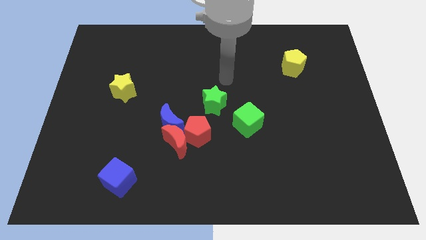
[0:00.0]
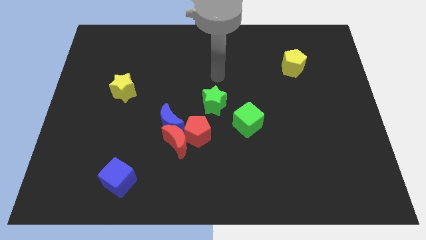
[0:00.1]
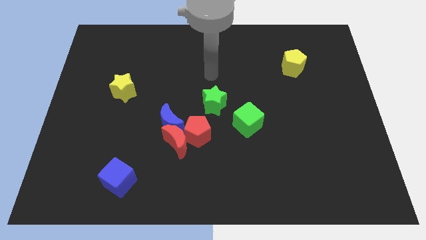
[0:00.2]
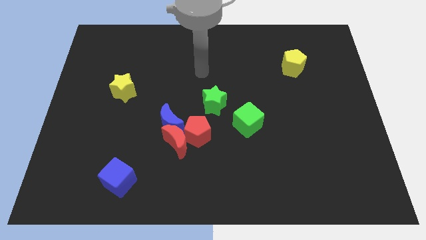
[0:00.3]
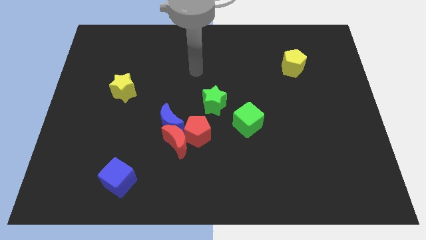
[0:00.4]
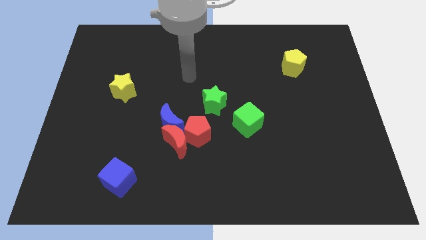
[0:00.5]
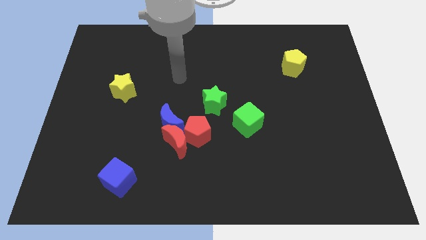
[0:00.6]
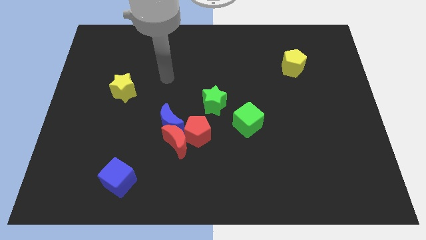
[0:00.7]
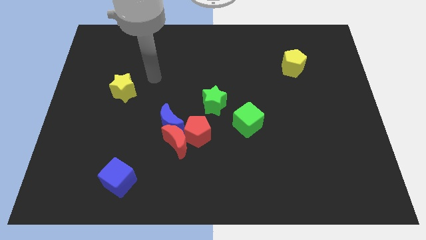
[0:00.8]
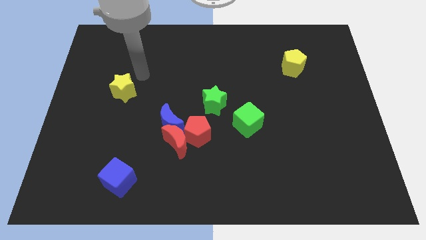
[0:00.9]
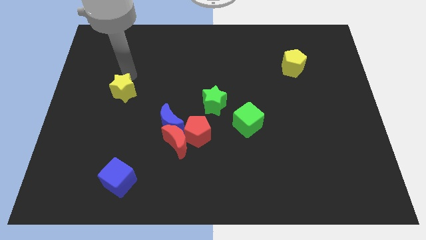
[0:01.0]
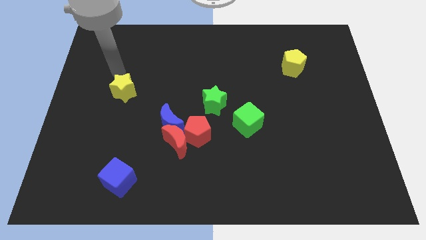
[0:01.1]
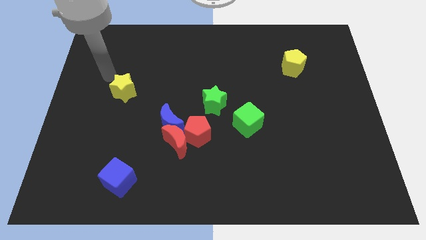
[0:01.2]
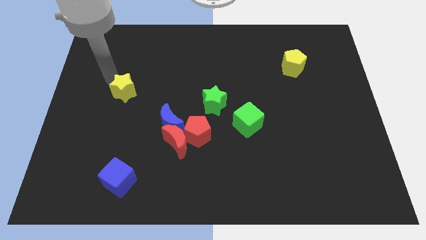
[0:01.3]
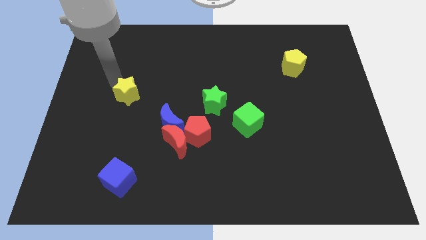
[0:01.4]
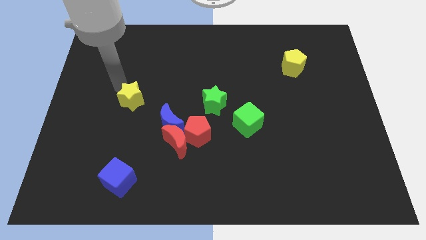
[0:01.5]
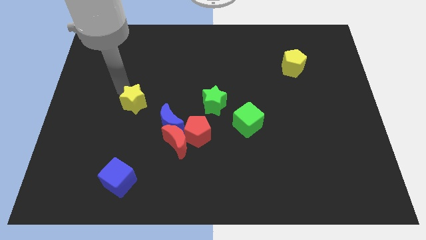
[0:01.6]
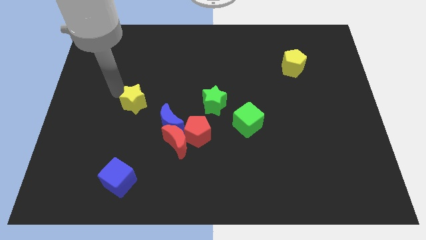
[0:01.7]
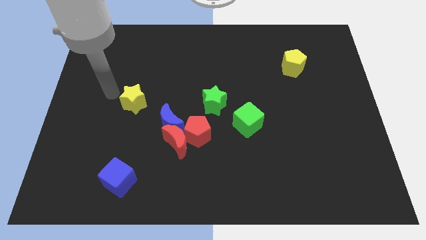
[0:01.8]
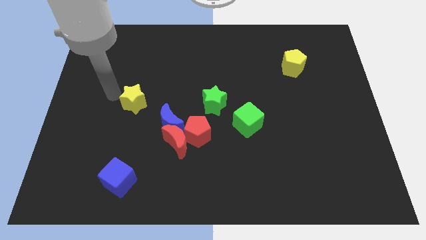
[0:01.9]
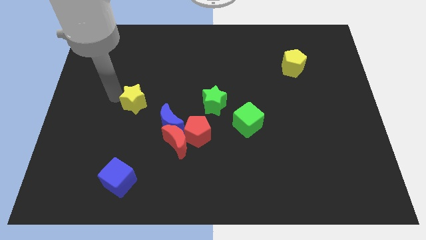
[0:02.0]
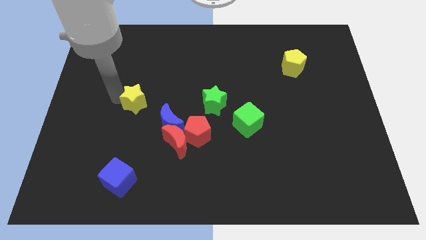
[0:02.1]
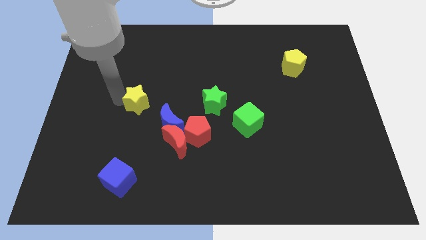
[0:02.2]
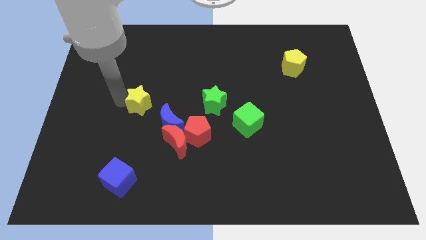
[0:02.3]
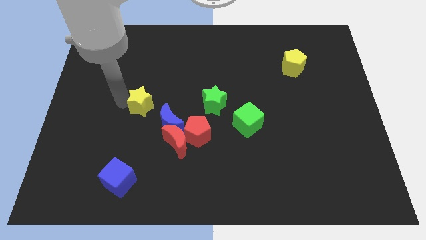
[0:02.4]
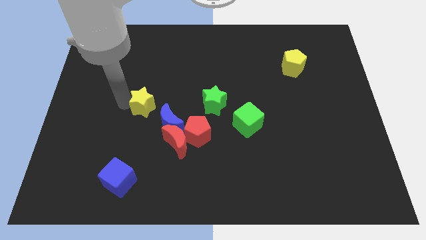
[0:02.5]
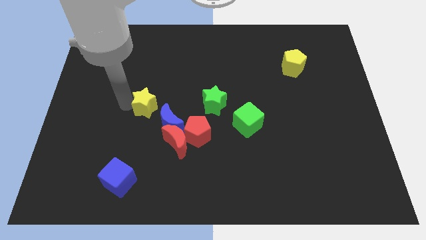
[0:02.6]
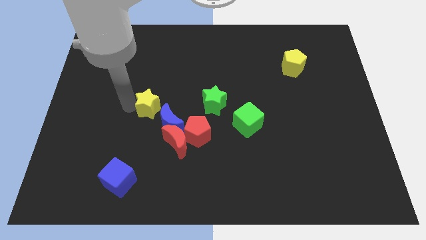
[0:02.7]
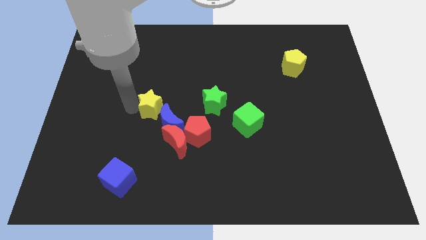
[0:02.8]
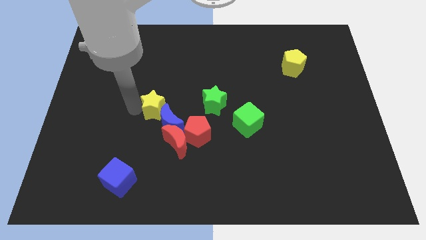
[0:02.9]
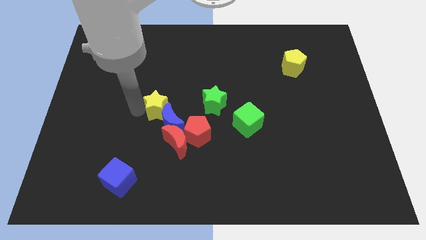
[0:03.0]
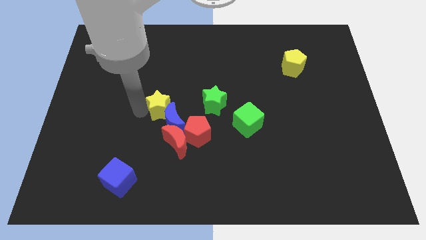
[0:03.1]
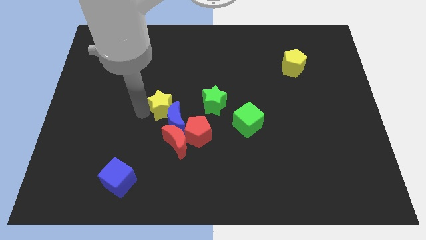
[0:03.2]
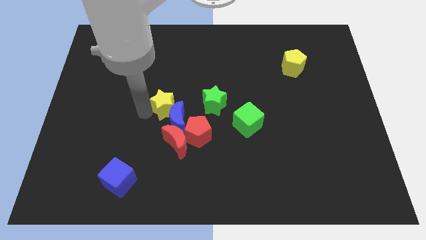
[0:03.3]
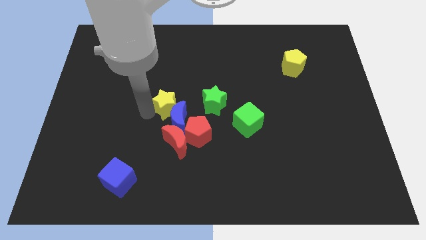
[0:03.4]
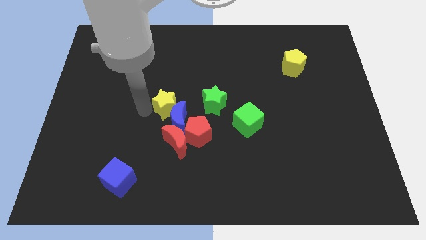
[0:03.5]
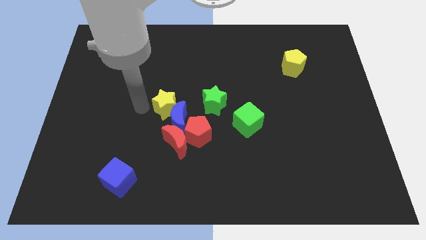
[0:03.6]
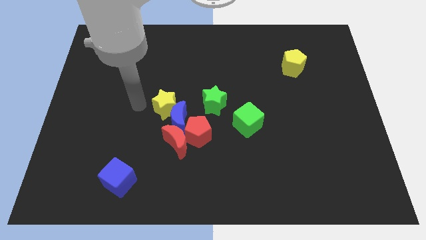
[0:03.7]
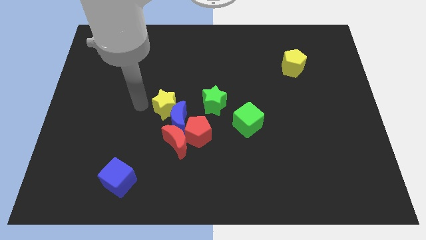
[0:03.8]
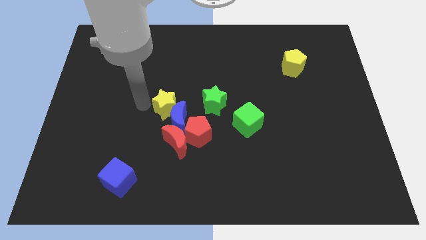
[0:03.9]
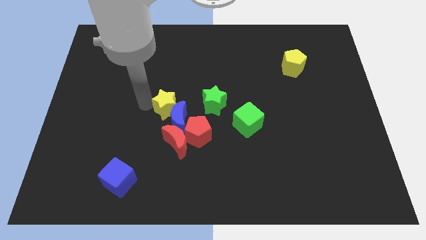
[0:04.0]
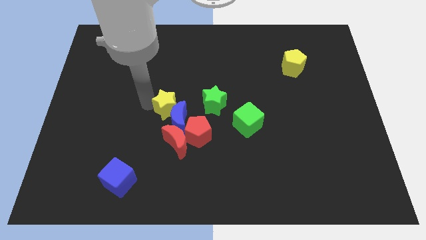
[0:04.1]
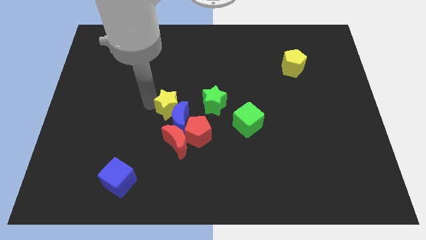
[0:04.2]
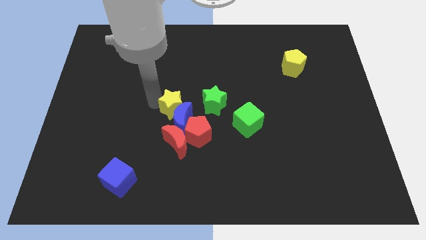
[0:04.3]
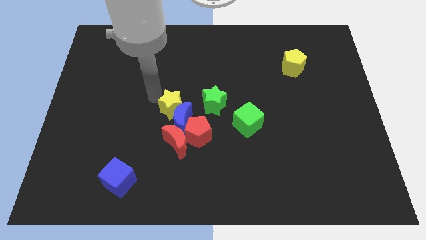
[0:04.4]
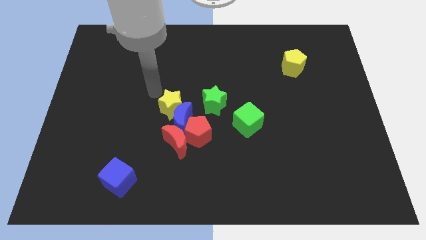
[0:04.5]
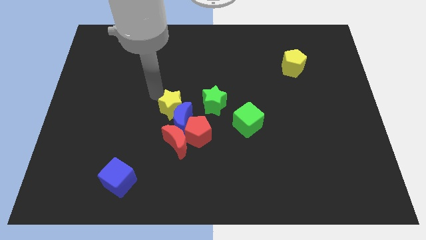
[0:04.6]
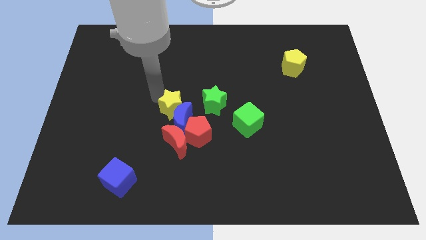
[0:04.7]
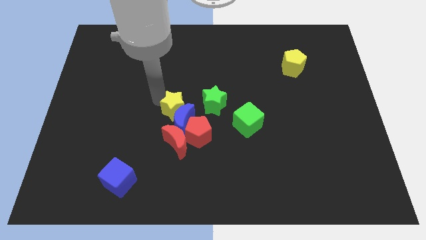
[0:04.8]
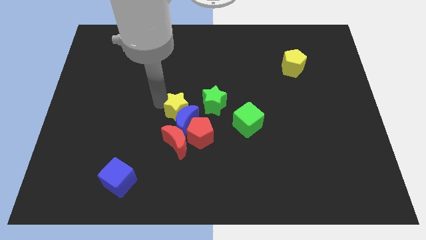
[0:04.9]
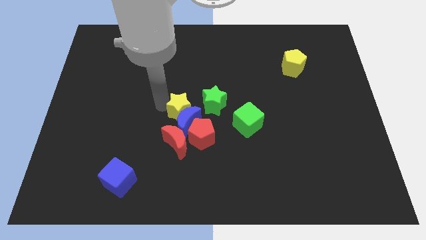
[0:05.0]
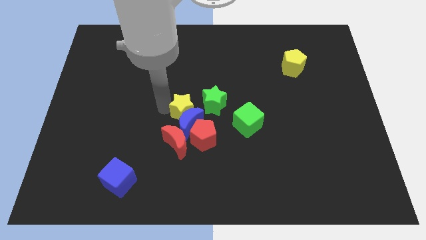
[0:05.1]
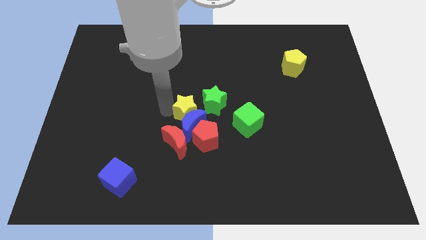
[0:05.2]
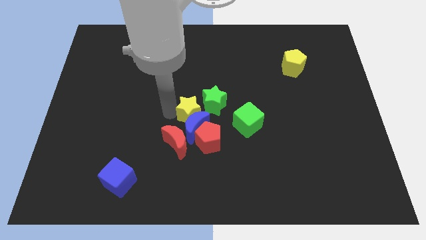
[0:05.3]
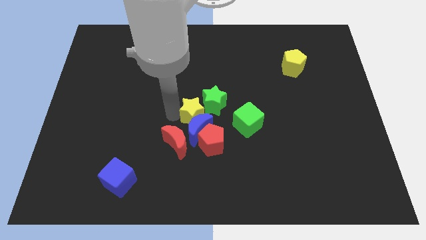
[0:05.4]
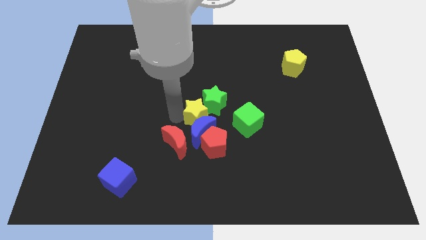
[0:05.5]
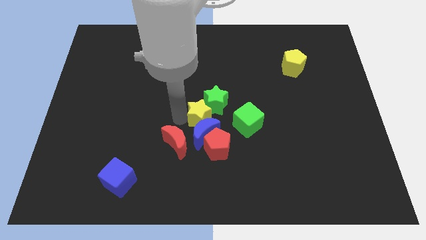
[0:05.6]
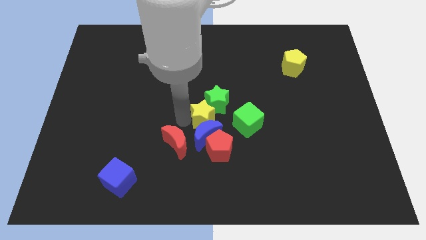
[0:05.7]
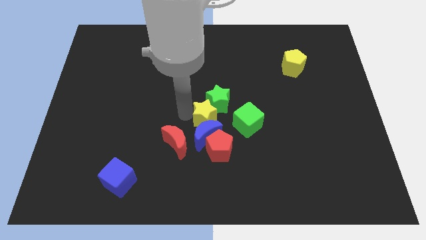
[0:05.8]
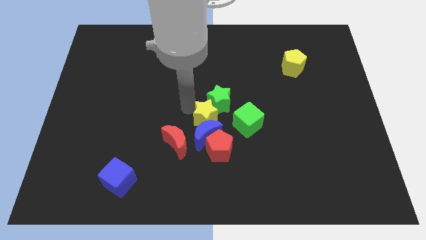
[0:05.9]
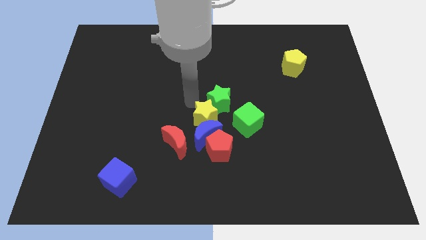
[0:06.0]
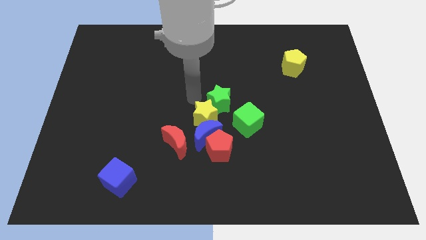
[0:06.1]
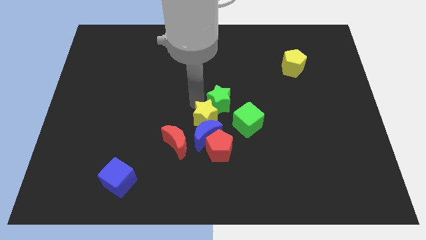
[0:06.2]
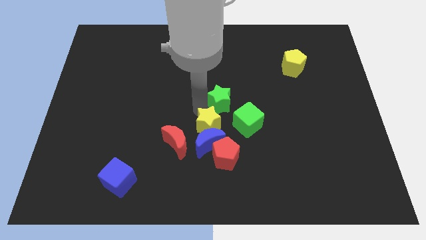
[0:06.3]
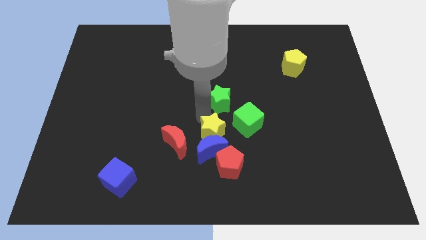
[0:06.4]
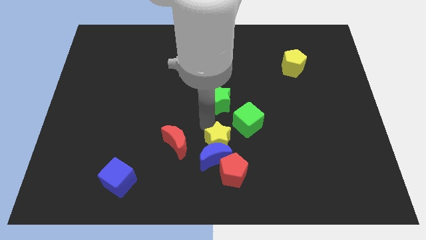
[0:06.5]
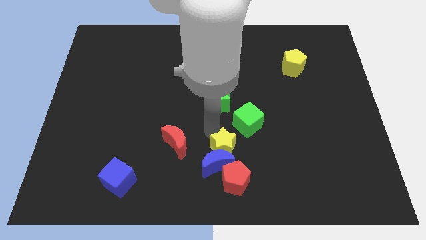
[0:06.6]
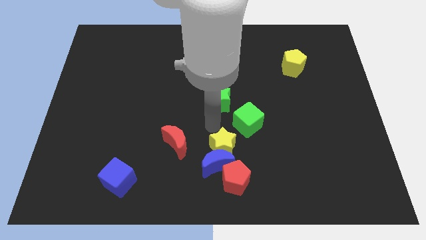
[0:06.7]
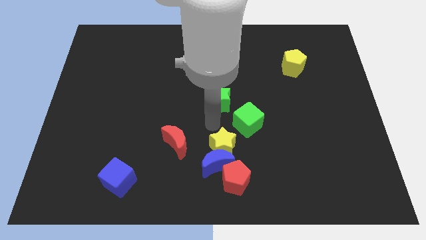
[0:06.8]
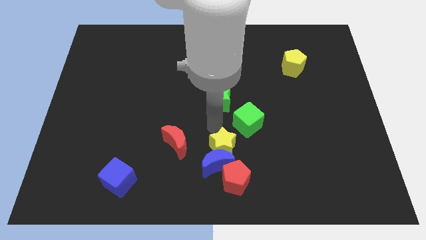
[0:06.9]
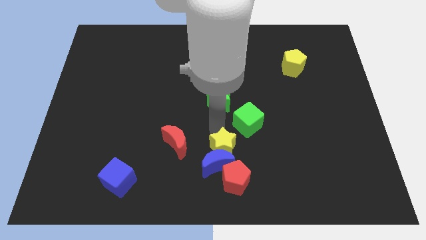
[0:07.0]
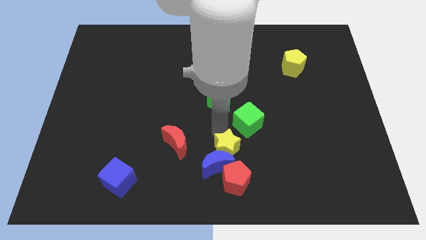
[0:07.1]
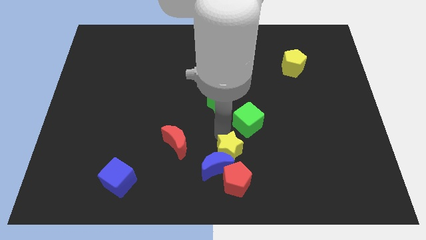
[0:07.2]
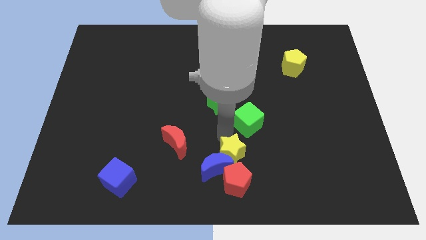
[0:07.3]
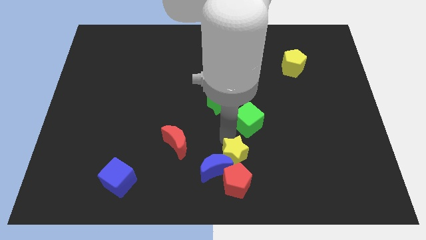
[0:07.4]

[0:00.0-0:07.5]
slide the yellow star next to the red pentagon
